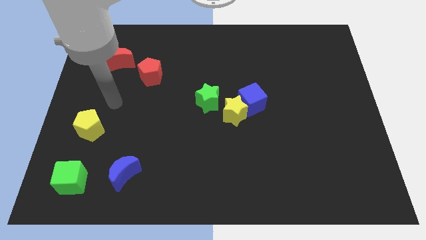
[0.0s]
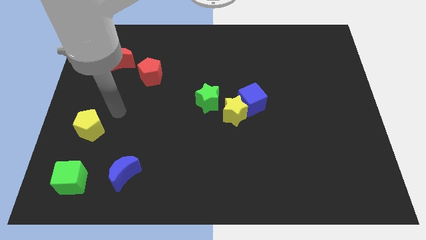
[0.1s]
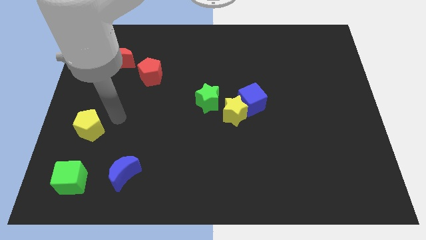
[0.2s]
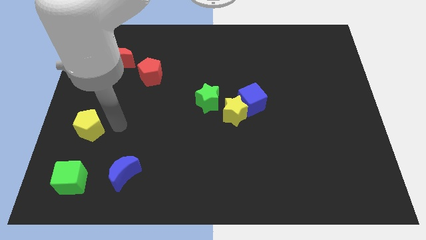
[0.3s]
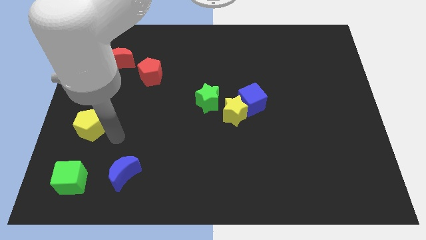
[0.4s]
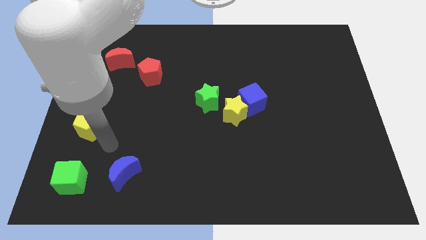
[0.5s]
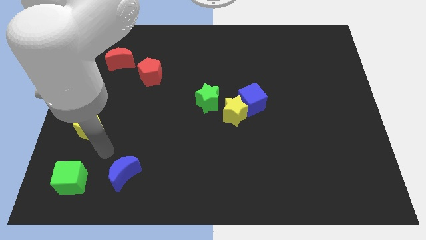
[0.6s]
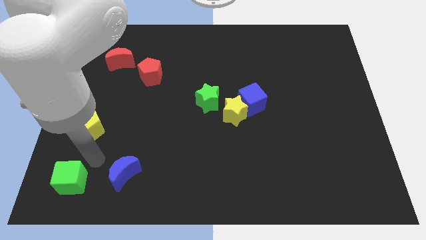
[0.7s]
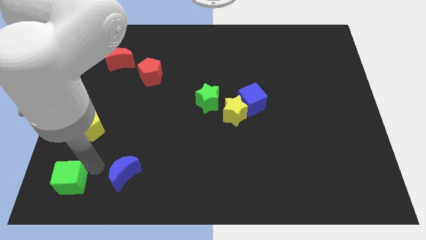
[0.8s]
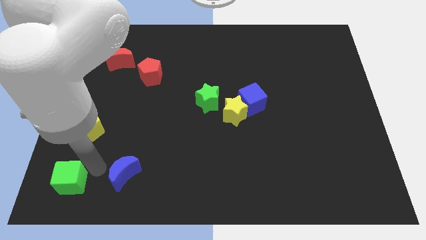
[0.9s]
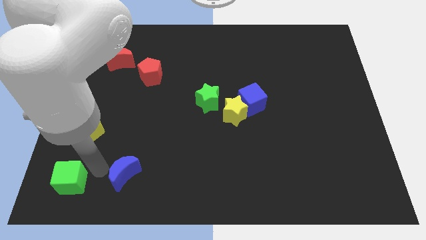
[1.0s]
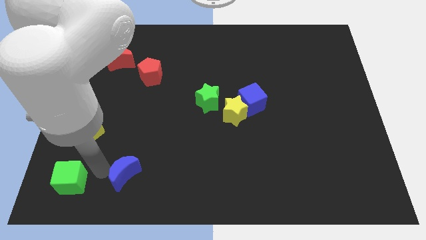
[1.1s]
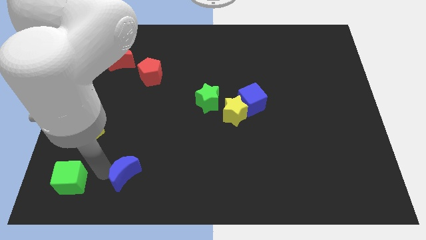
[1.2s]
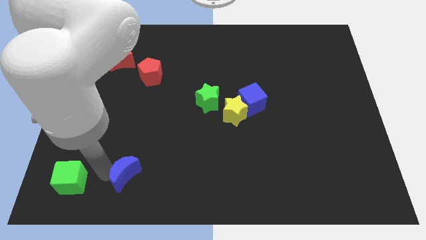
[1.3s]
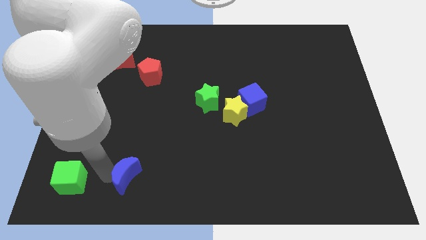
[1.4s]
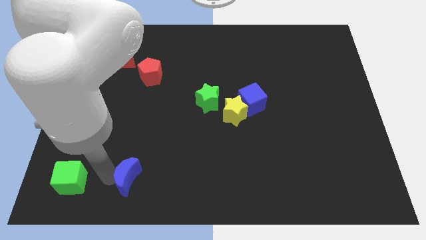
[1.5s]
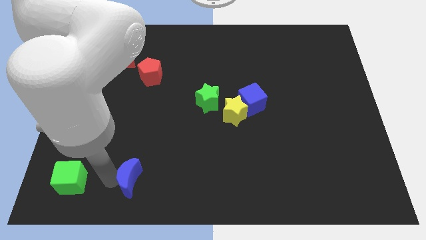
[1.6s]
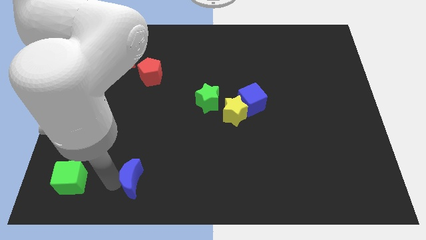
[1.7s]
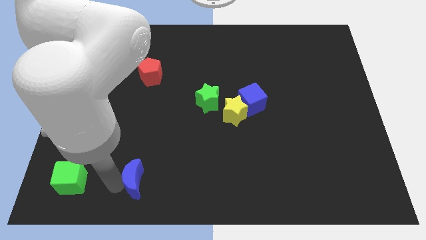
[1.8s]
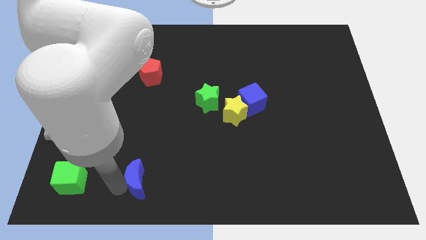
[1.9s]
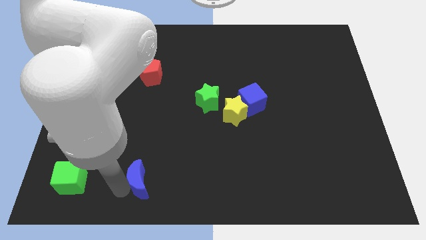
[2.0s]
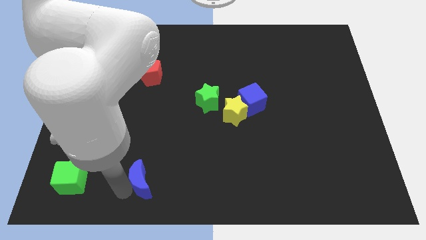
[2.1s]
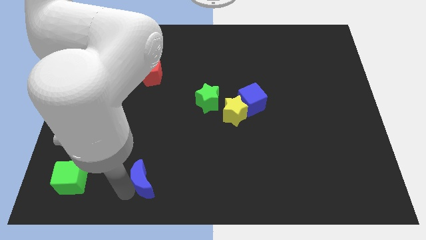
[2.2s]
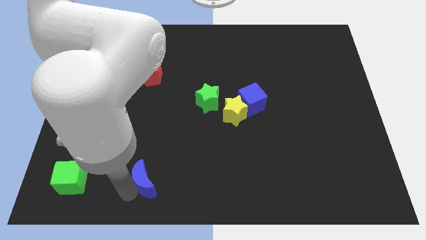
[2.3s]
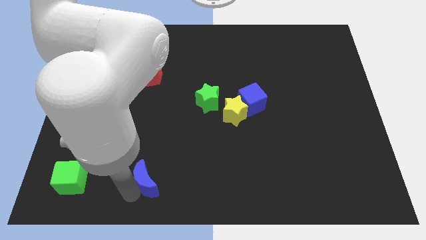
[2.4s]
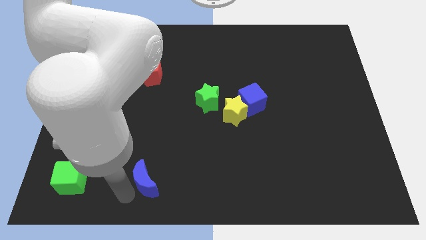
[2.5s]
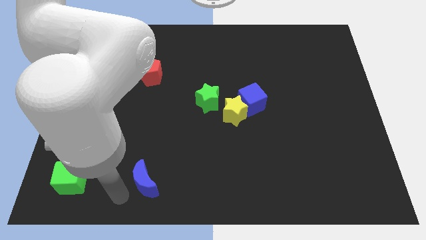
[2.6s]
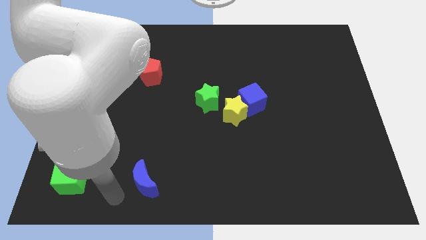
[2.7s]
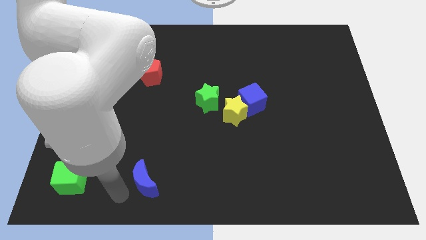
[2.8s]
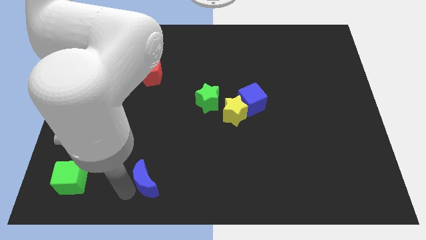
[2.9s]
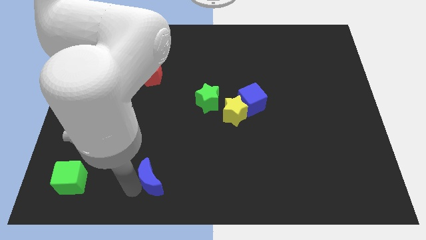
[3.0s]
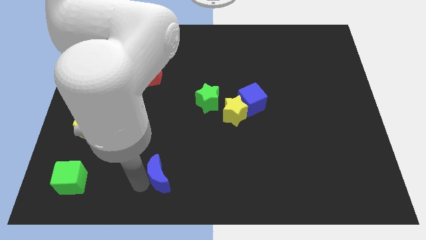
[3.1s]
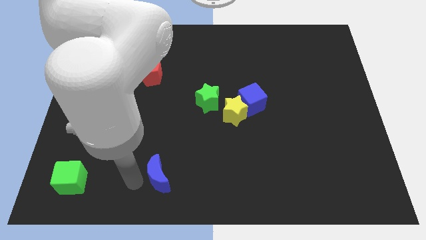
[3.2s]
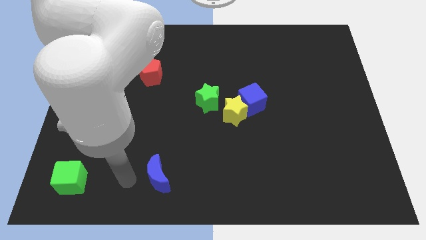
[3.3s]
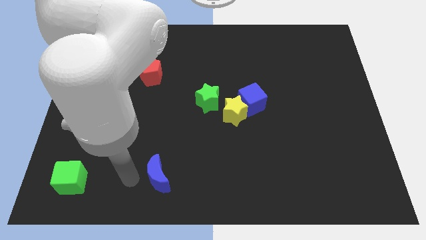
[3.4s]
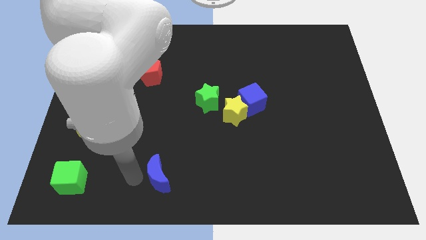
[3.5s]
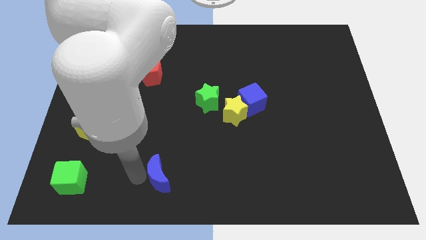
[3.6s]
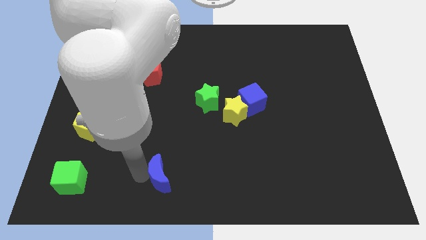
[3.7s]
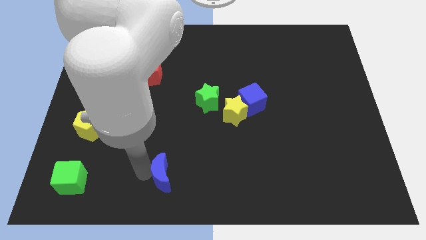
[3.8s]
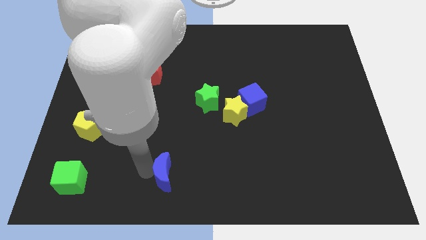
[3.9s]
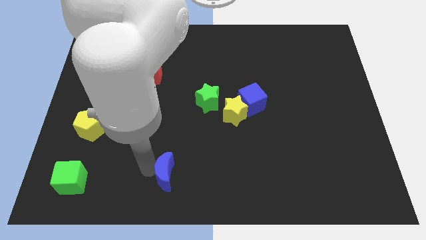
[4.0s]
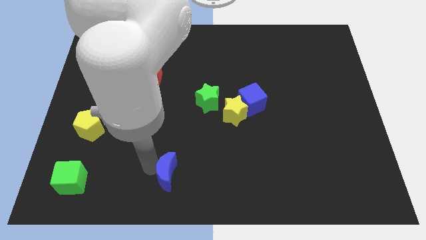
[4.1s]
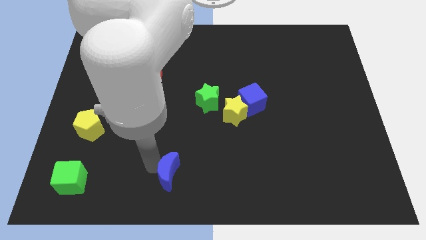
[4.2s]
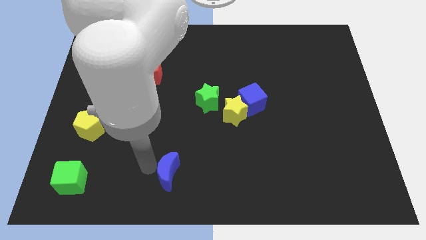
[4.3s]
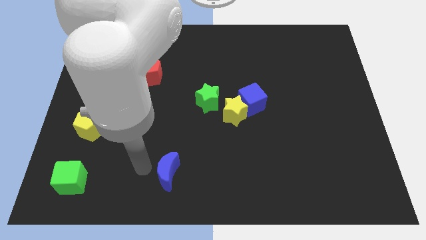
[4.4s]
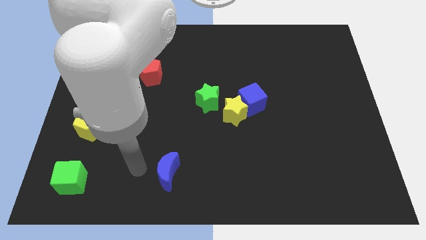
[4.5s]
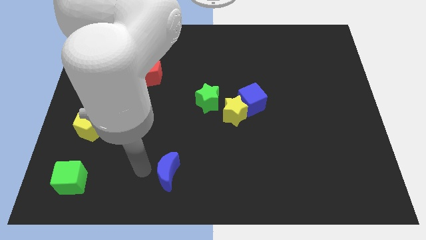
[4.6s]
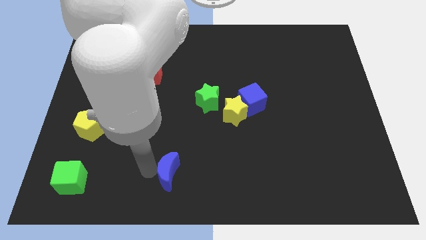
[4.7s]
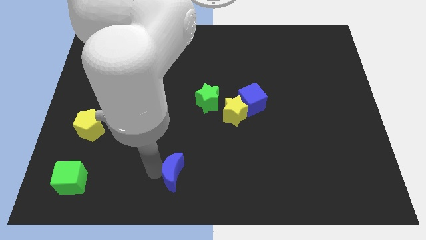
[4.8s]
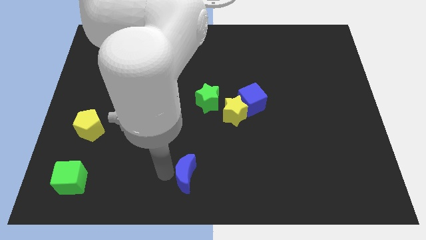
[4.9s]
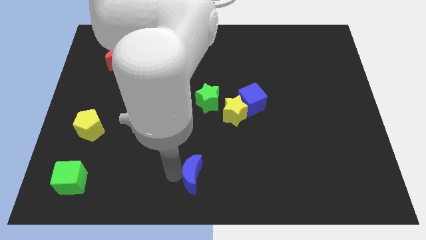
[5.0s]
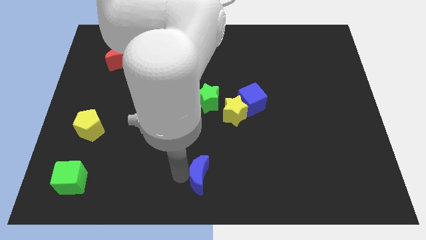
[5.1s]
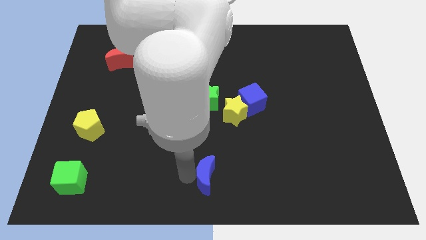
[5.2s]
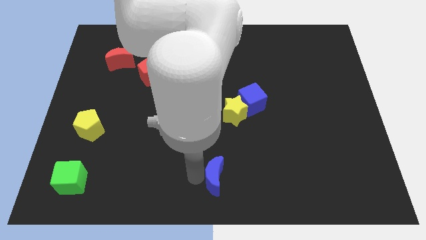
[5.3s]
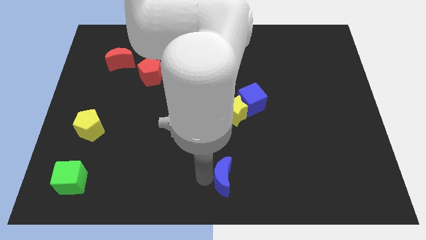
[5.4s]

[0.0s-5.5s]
slide the blue moon to the right

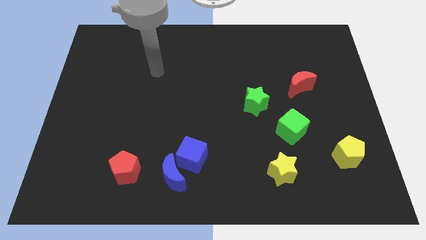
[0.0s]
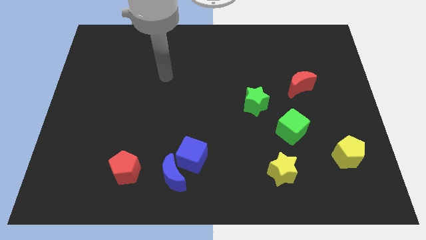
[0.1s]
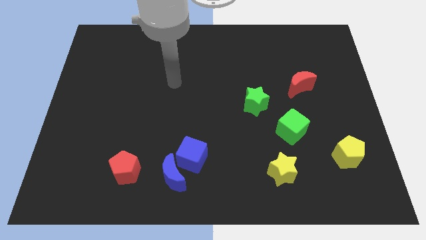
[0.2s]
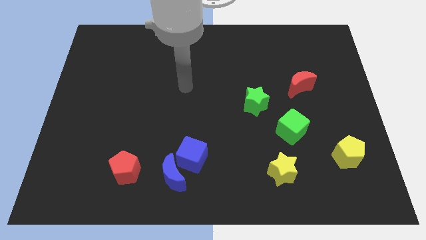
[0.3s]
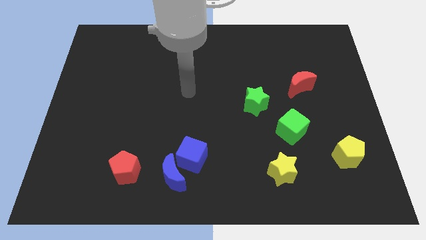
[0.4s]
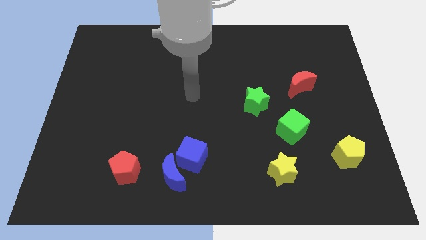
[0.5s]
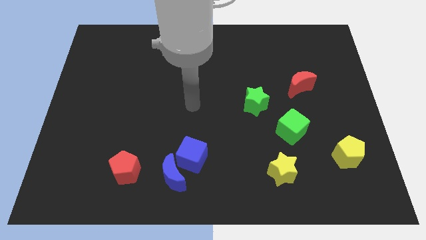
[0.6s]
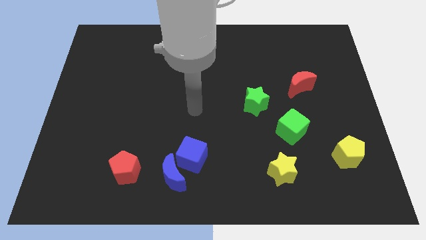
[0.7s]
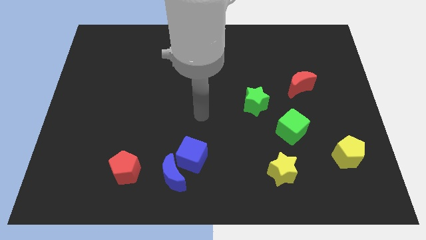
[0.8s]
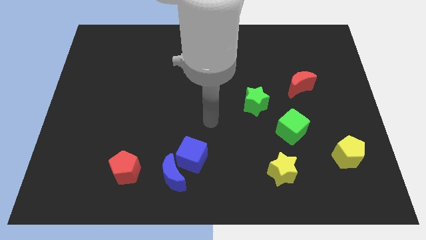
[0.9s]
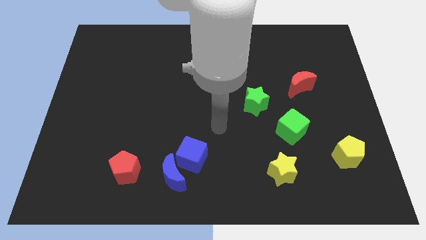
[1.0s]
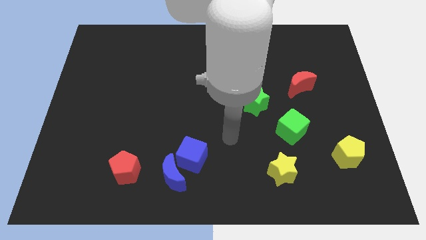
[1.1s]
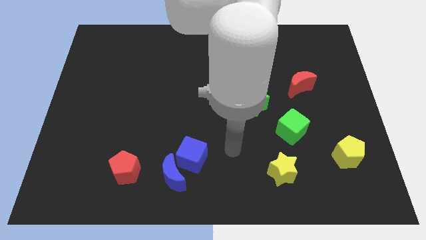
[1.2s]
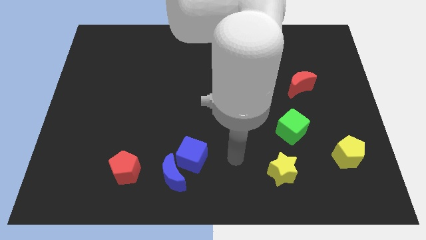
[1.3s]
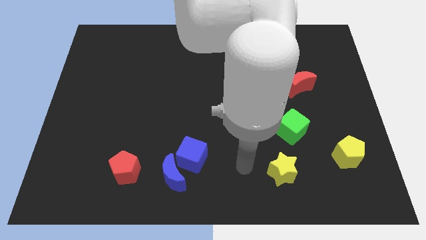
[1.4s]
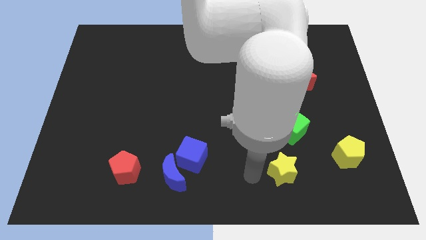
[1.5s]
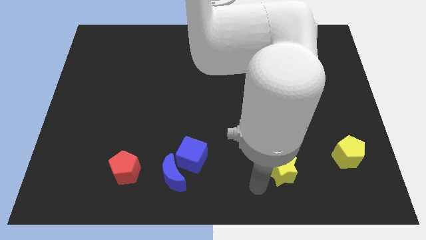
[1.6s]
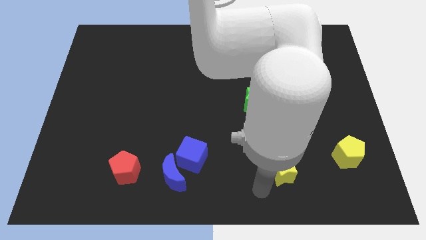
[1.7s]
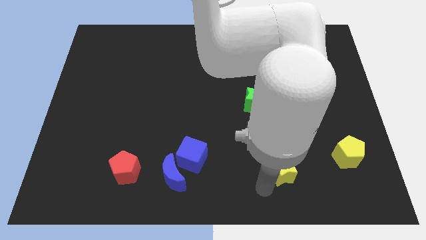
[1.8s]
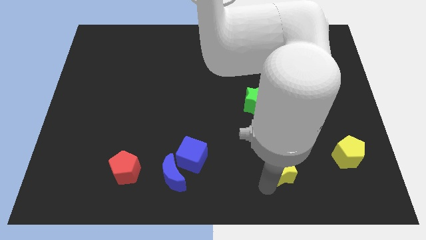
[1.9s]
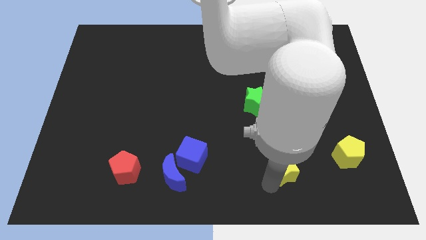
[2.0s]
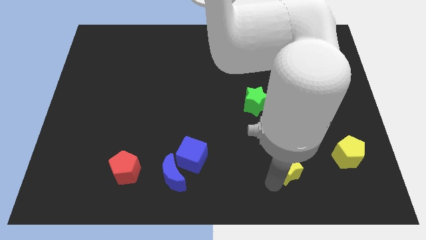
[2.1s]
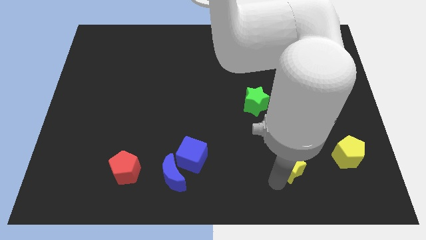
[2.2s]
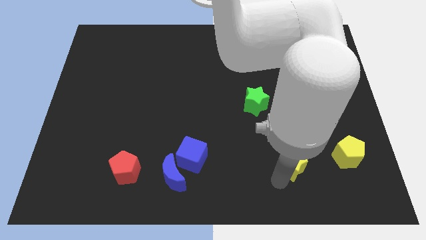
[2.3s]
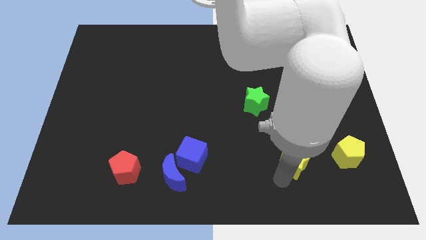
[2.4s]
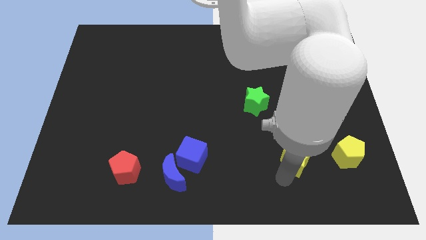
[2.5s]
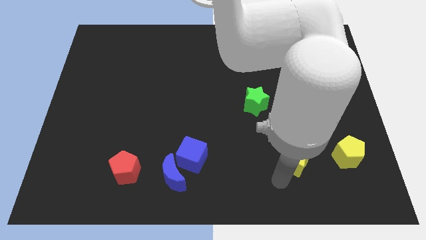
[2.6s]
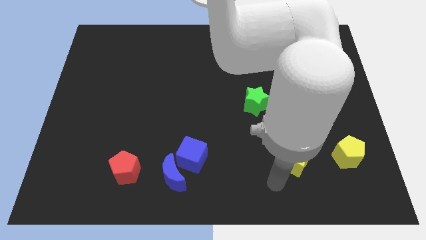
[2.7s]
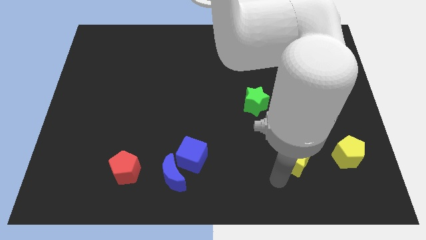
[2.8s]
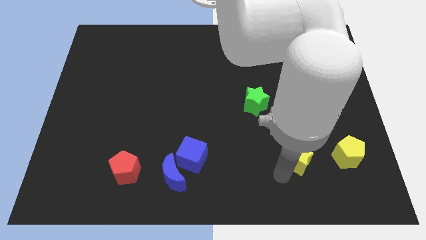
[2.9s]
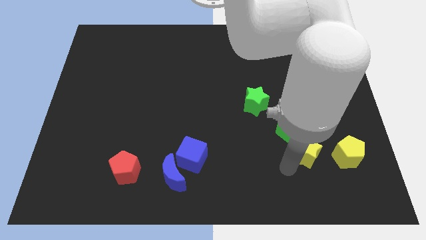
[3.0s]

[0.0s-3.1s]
push the yellow star diagonally up and to the right slightly
